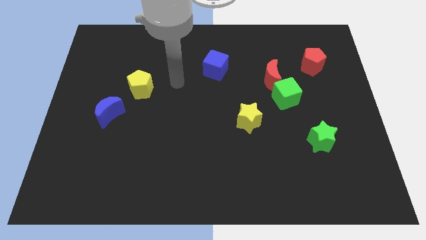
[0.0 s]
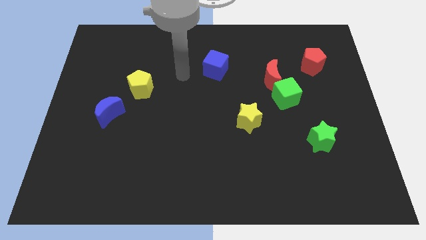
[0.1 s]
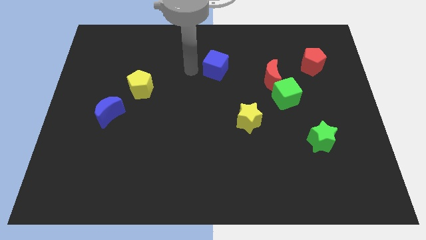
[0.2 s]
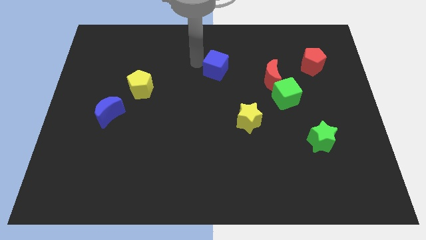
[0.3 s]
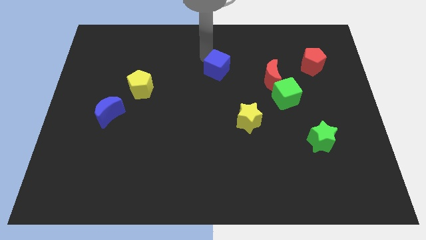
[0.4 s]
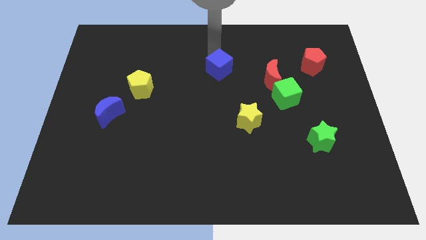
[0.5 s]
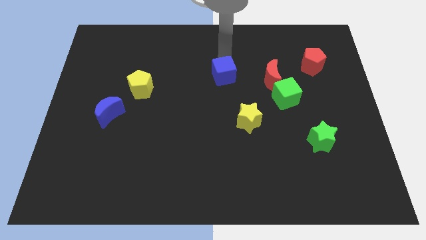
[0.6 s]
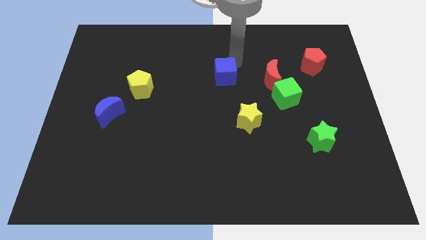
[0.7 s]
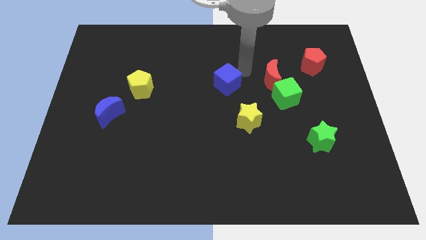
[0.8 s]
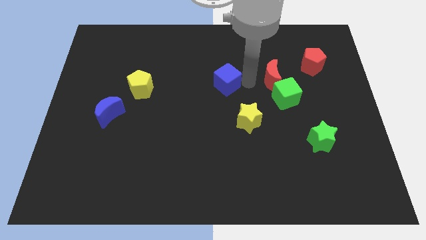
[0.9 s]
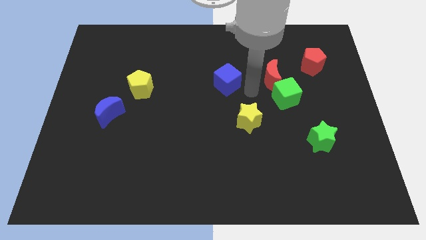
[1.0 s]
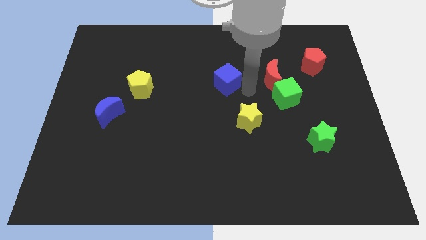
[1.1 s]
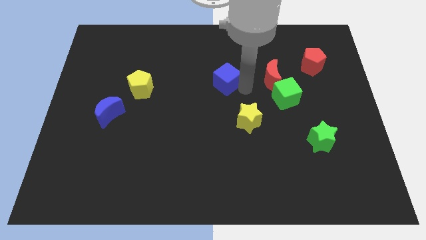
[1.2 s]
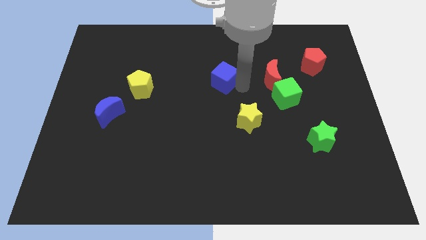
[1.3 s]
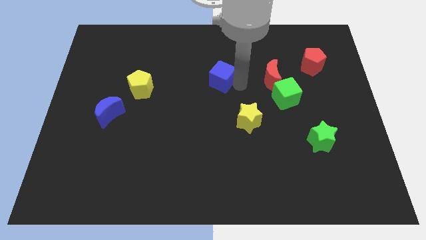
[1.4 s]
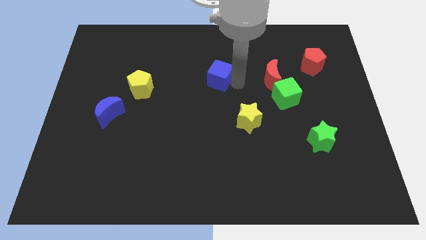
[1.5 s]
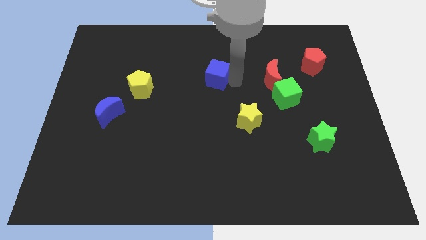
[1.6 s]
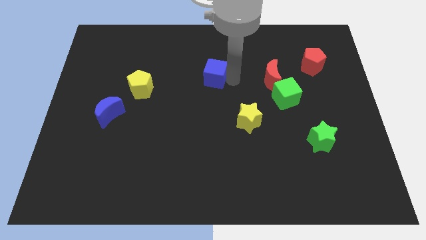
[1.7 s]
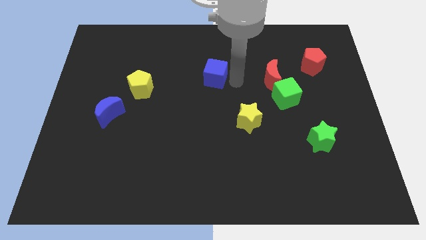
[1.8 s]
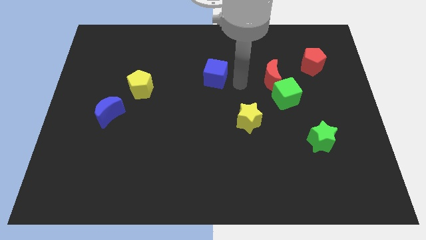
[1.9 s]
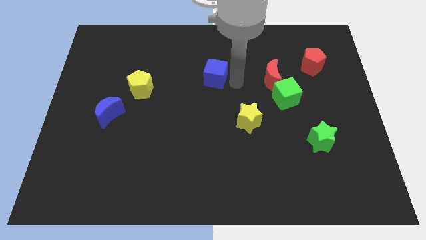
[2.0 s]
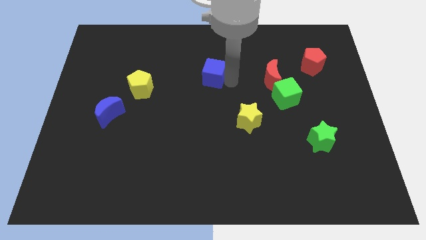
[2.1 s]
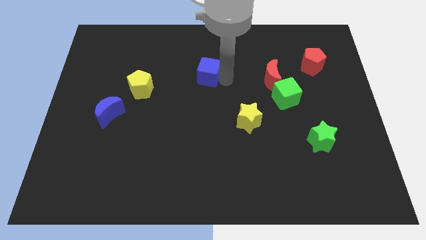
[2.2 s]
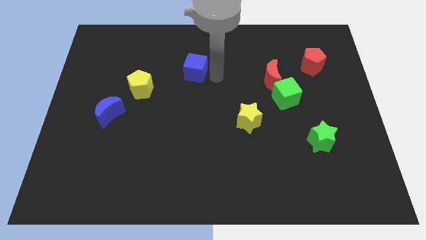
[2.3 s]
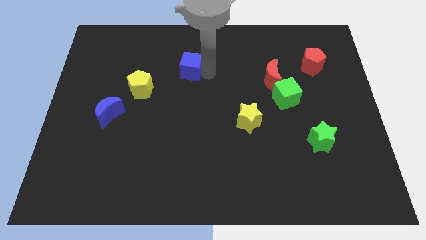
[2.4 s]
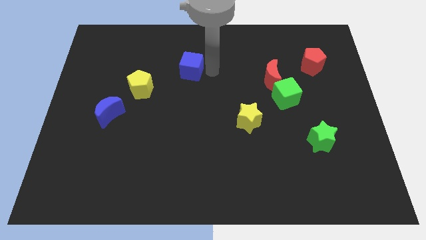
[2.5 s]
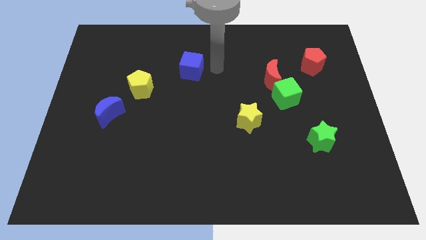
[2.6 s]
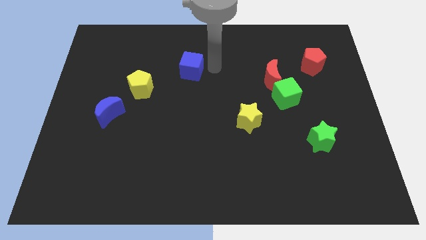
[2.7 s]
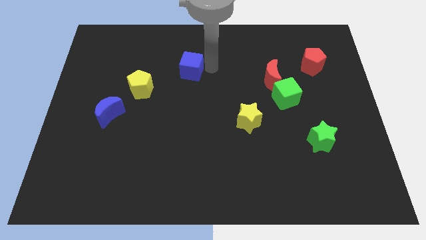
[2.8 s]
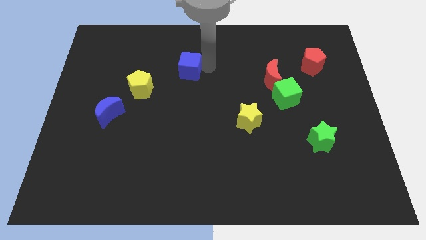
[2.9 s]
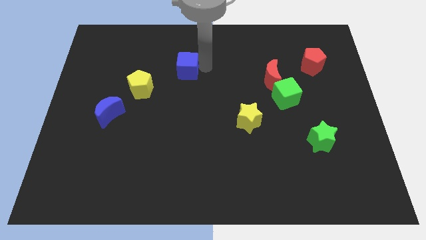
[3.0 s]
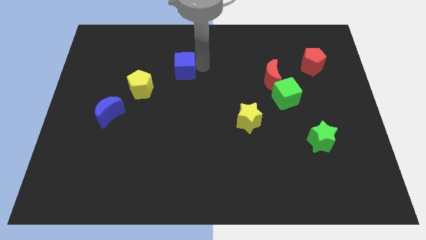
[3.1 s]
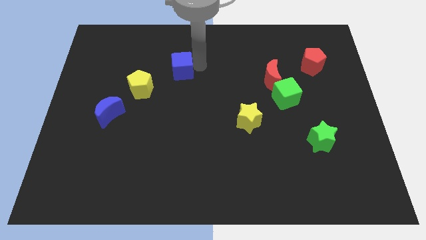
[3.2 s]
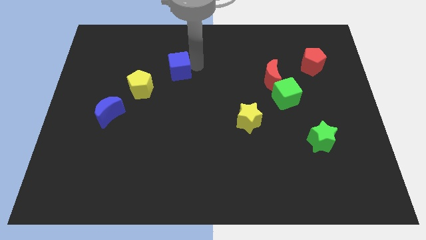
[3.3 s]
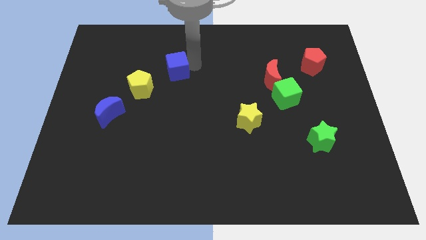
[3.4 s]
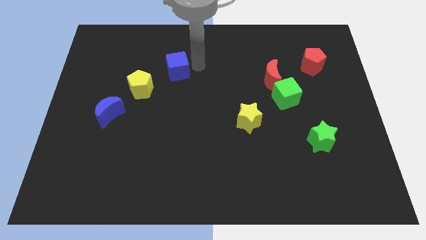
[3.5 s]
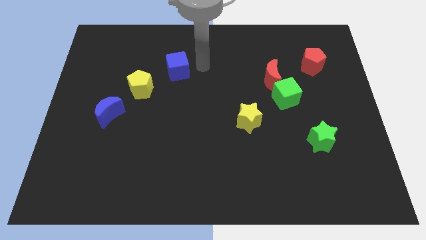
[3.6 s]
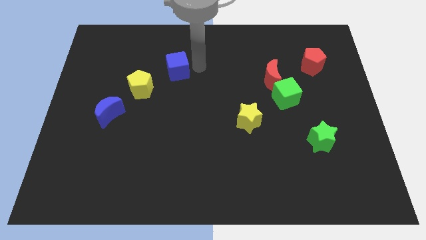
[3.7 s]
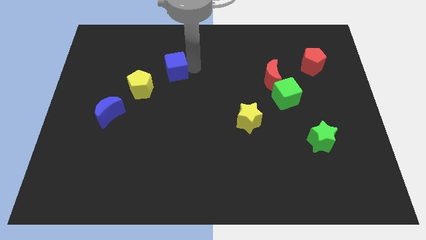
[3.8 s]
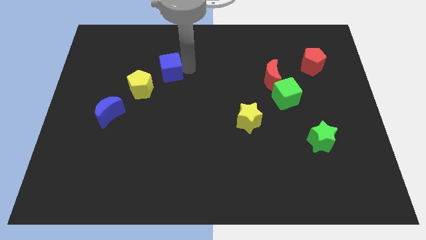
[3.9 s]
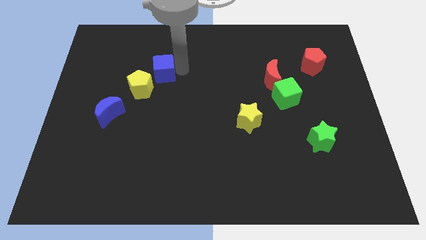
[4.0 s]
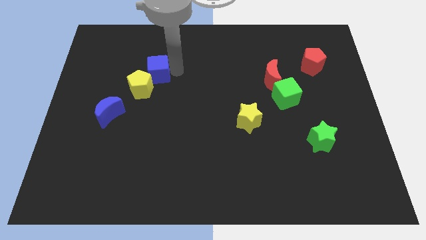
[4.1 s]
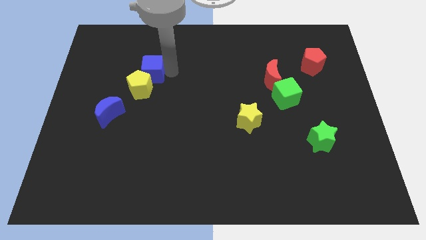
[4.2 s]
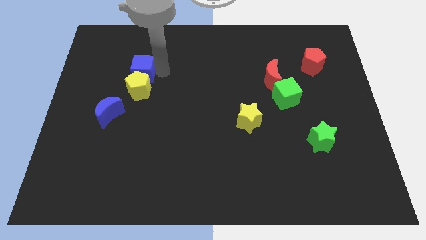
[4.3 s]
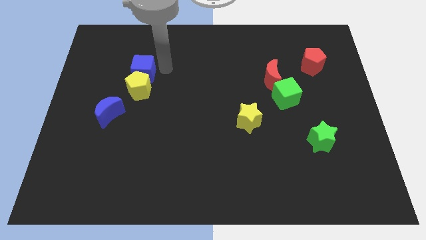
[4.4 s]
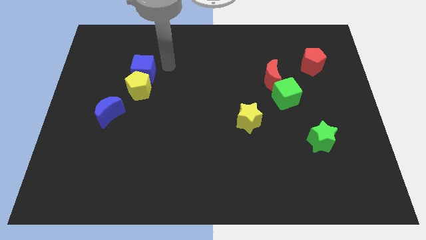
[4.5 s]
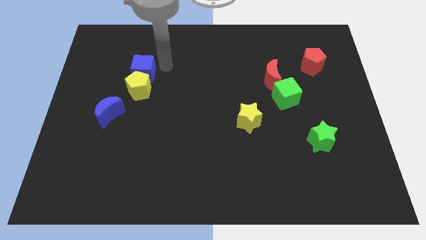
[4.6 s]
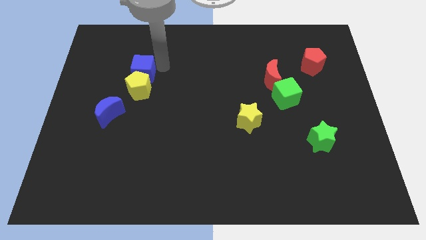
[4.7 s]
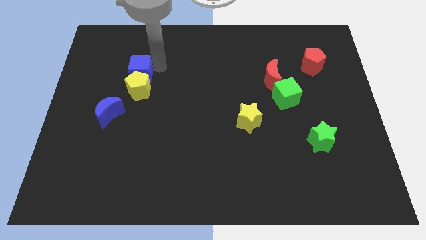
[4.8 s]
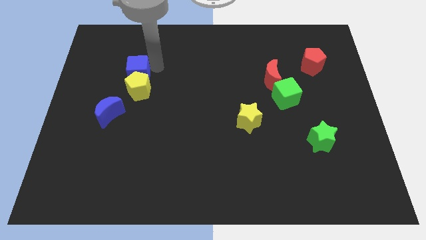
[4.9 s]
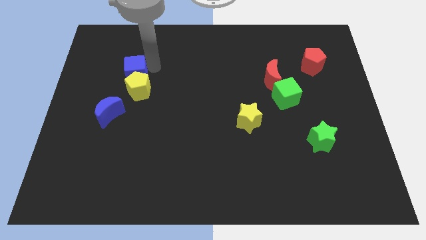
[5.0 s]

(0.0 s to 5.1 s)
push the blue cube to the top of the blue moon

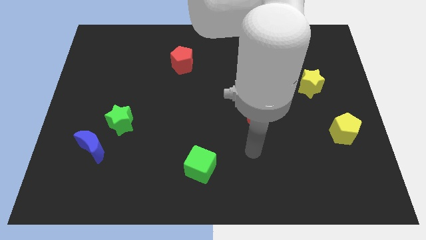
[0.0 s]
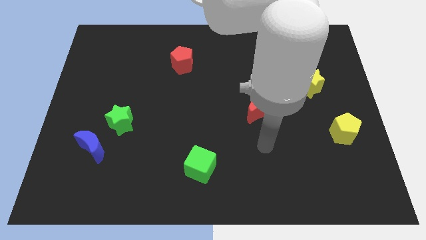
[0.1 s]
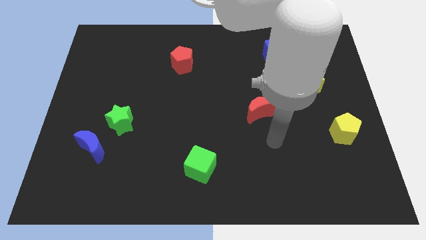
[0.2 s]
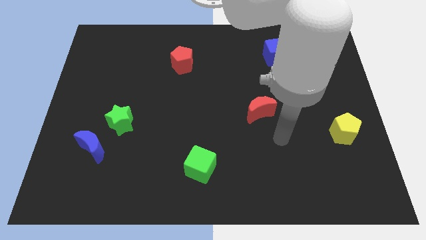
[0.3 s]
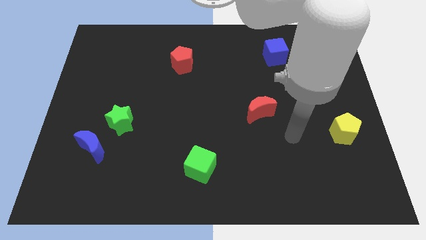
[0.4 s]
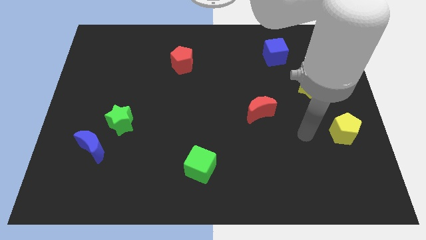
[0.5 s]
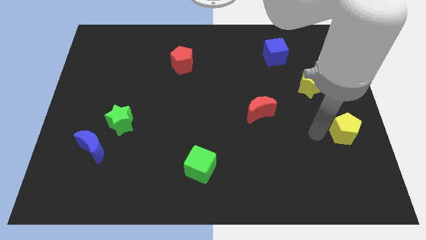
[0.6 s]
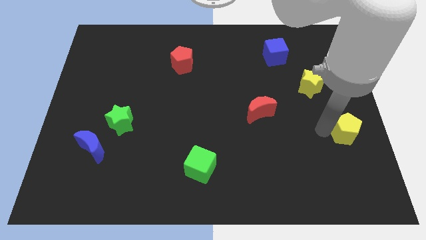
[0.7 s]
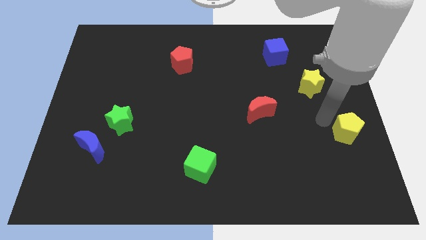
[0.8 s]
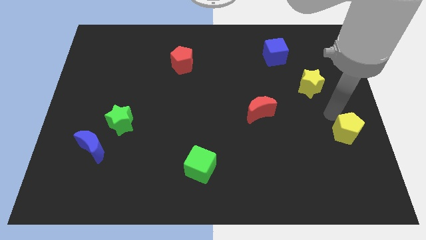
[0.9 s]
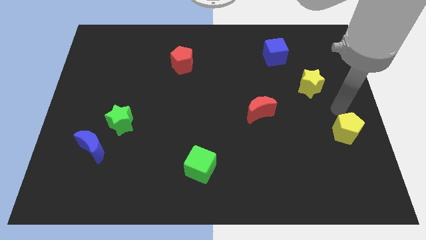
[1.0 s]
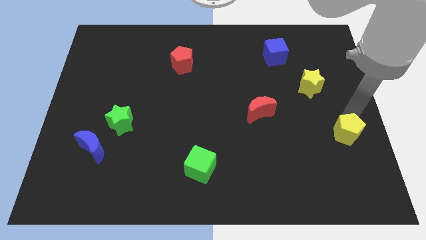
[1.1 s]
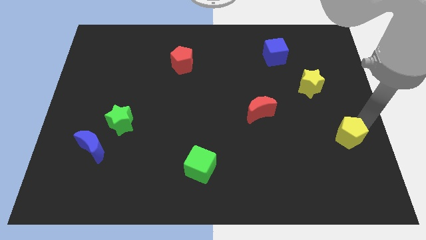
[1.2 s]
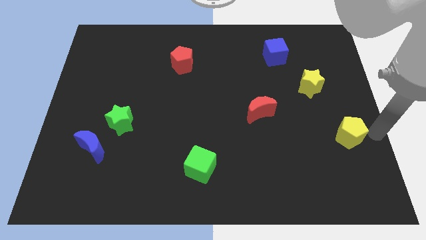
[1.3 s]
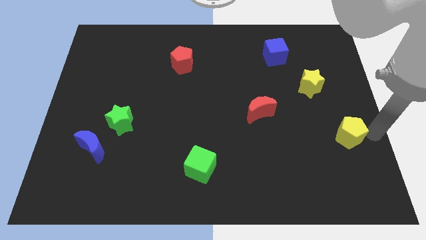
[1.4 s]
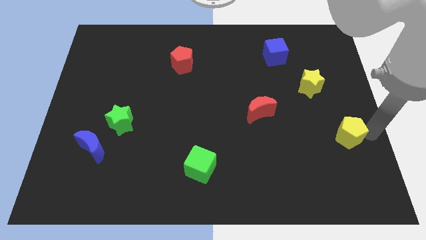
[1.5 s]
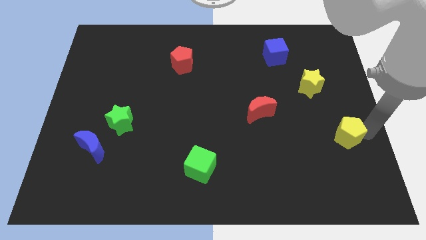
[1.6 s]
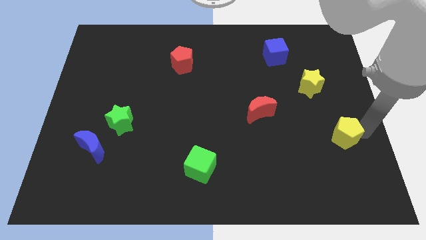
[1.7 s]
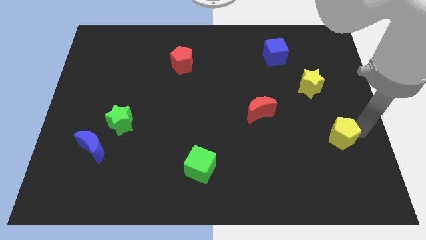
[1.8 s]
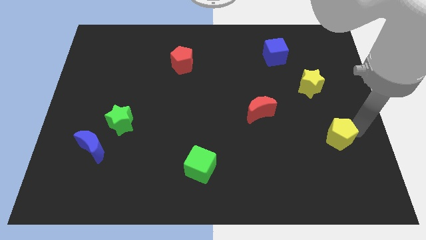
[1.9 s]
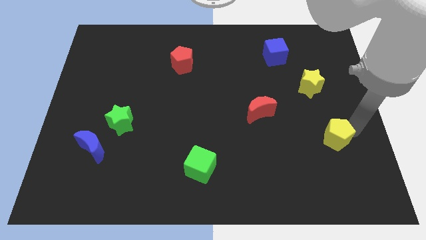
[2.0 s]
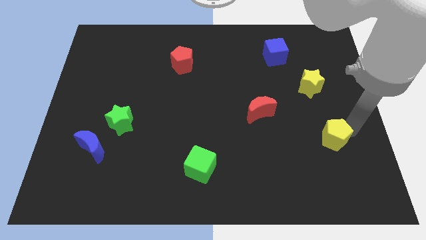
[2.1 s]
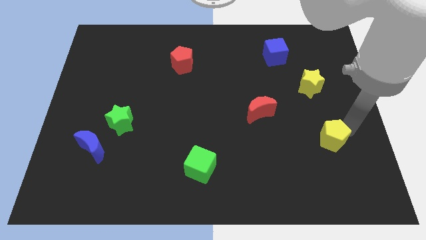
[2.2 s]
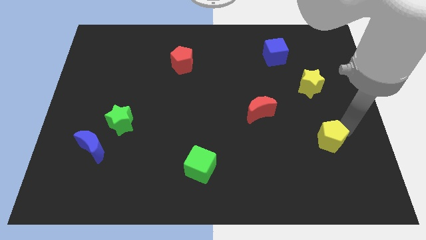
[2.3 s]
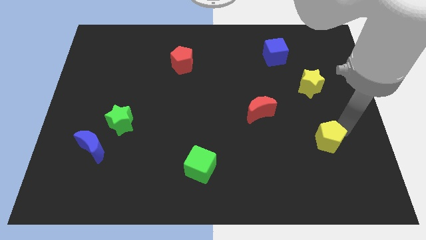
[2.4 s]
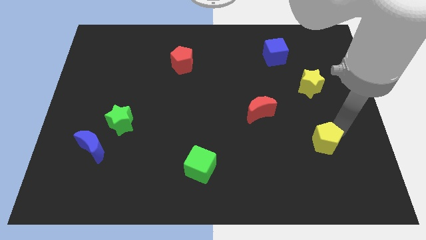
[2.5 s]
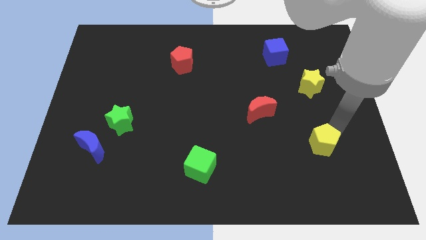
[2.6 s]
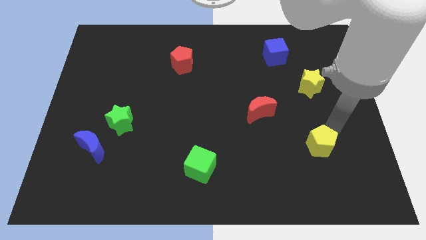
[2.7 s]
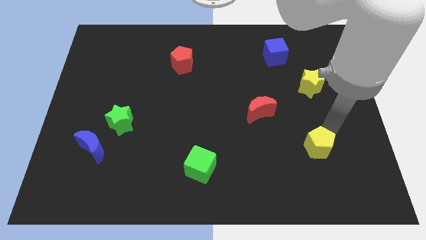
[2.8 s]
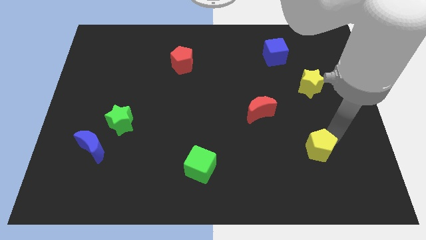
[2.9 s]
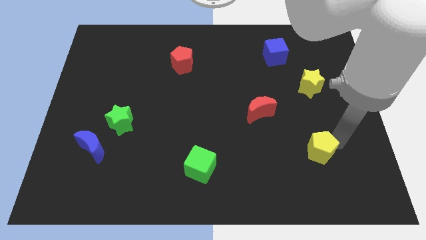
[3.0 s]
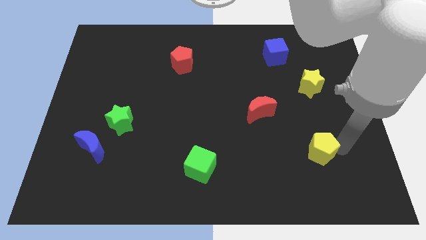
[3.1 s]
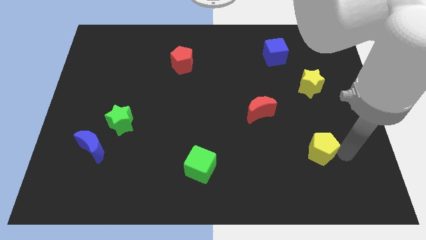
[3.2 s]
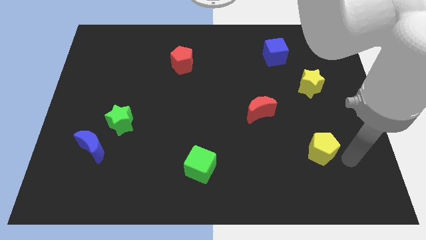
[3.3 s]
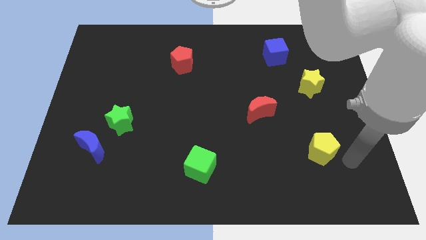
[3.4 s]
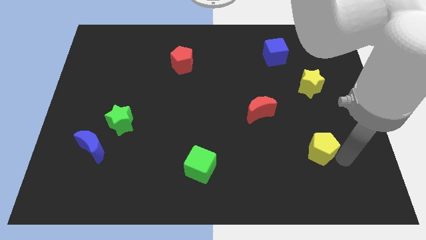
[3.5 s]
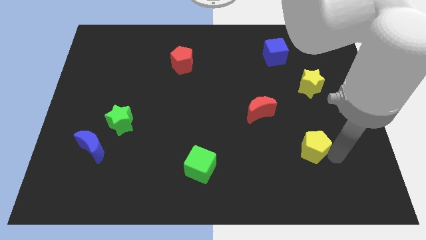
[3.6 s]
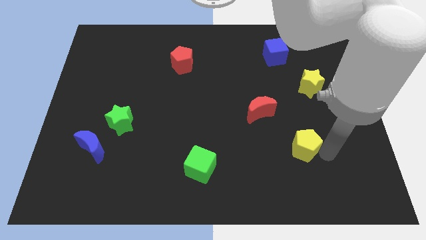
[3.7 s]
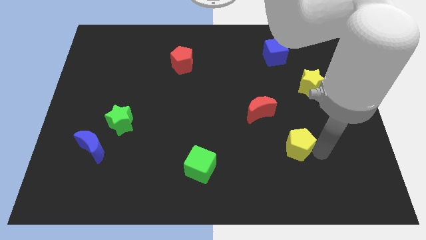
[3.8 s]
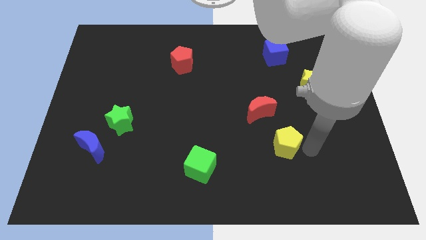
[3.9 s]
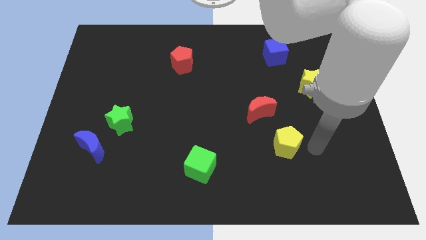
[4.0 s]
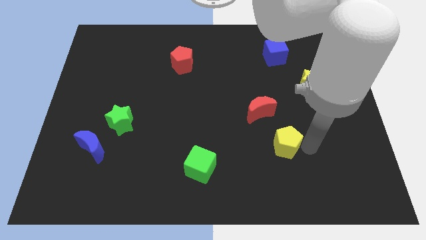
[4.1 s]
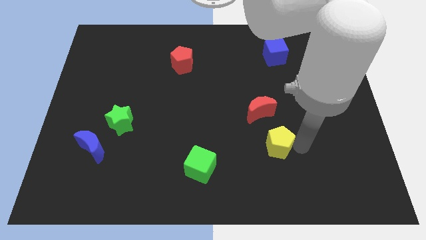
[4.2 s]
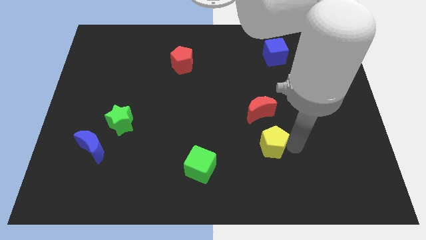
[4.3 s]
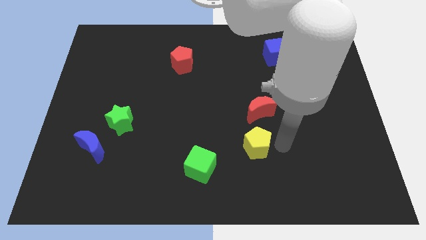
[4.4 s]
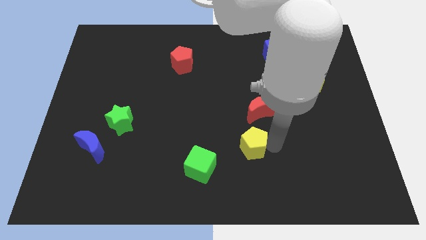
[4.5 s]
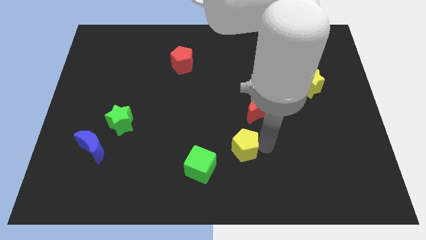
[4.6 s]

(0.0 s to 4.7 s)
push the yellow pentagon diagonally up and to the right of the green cube
